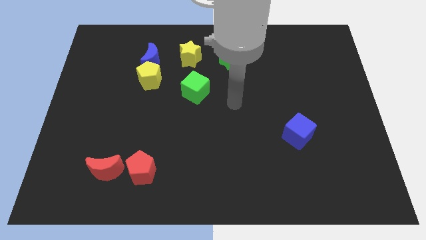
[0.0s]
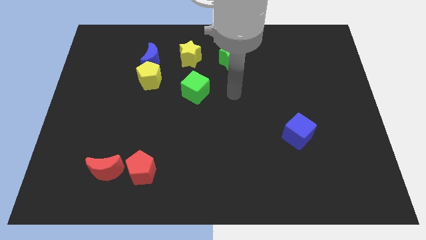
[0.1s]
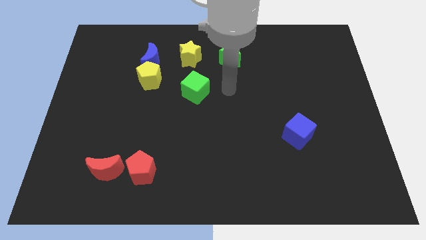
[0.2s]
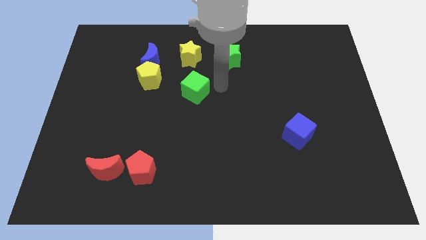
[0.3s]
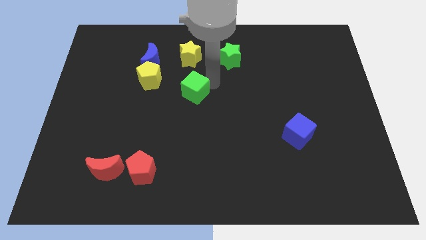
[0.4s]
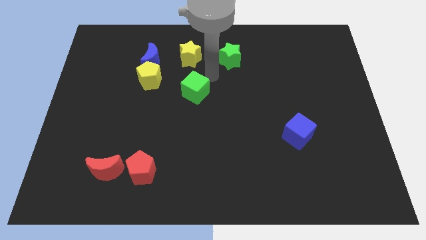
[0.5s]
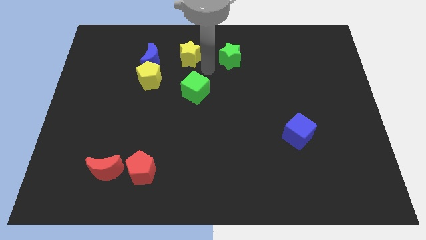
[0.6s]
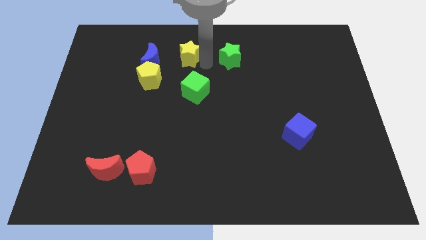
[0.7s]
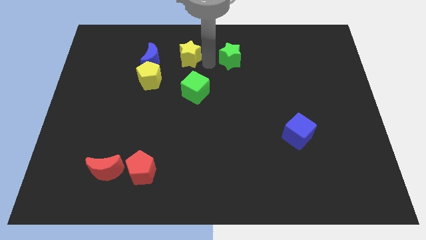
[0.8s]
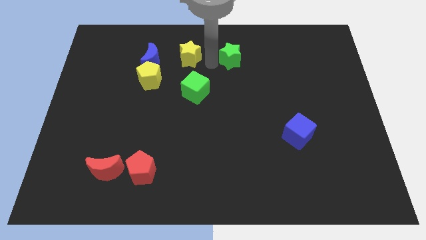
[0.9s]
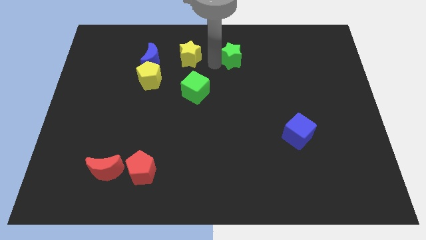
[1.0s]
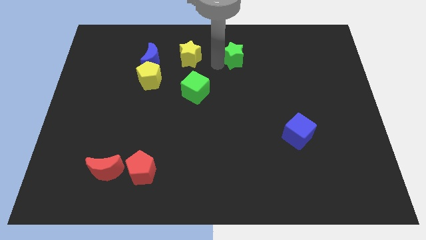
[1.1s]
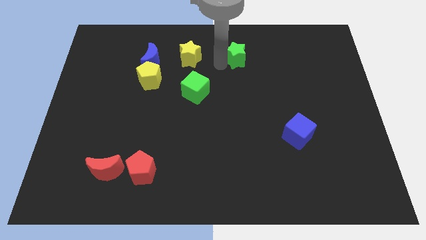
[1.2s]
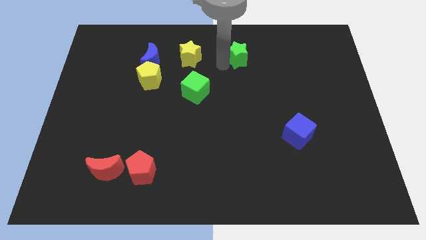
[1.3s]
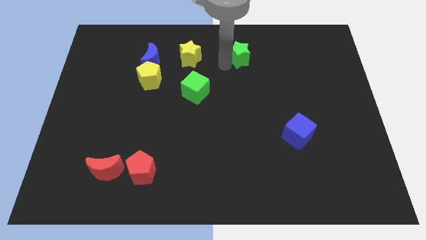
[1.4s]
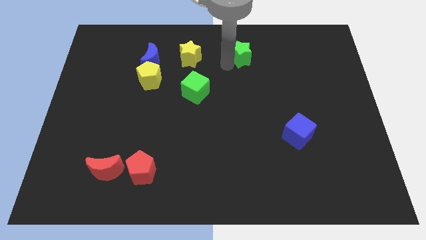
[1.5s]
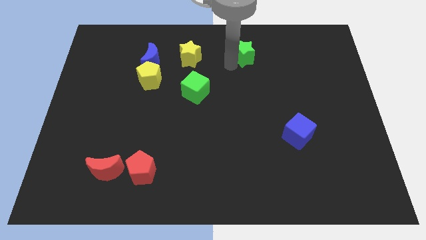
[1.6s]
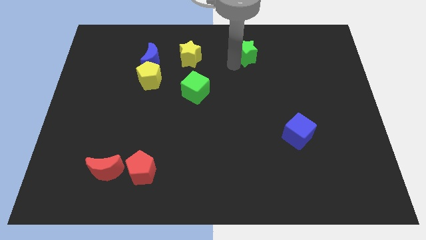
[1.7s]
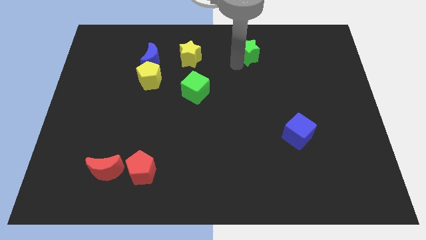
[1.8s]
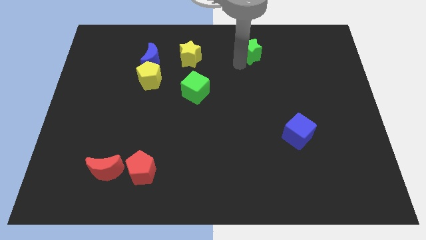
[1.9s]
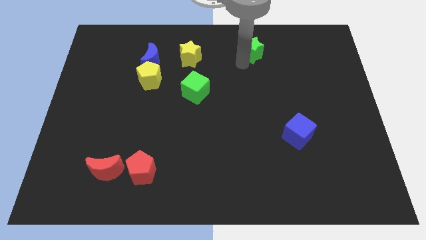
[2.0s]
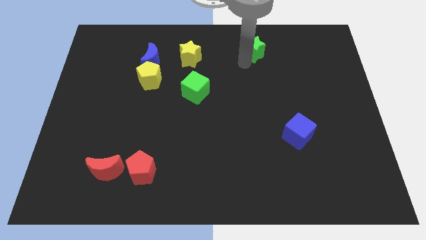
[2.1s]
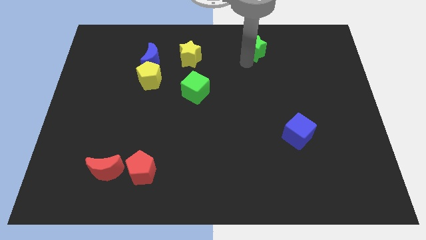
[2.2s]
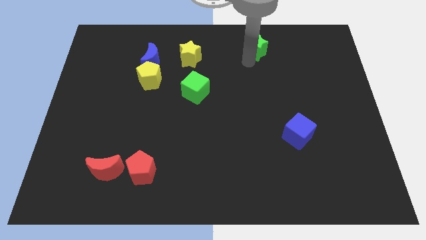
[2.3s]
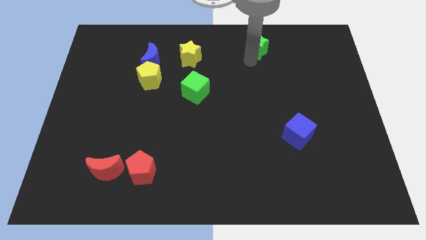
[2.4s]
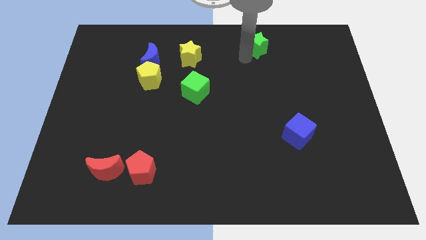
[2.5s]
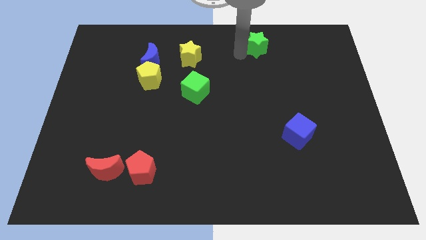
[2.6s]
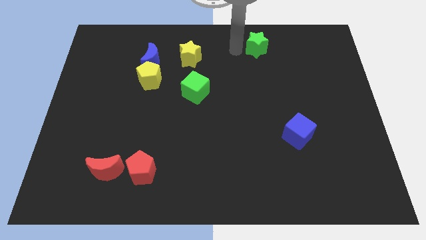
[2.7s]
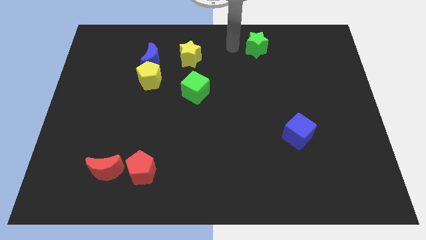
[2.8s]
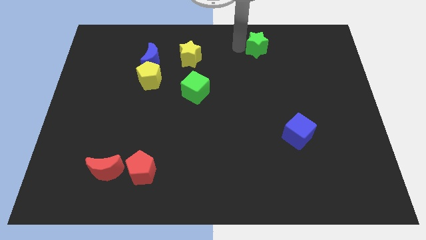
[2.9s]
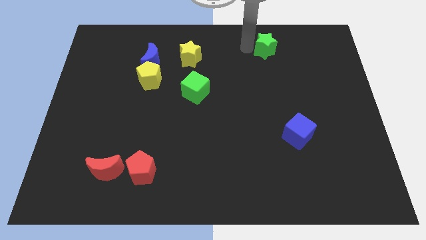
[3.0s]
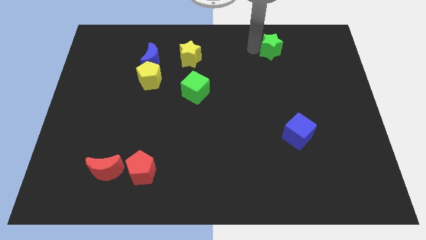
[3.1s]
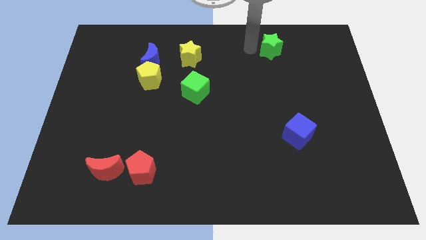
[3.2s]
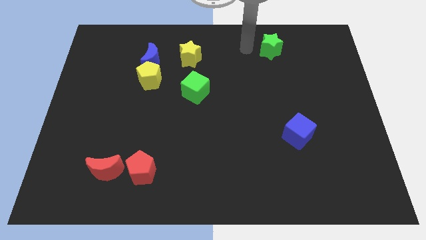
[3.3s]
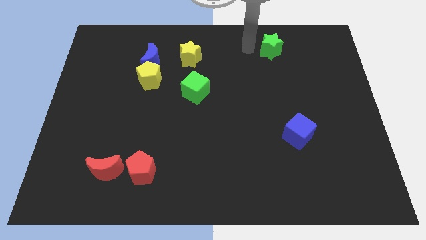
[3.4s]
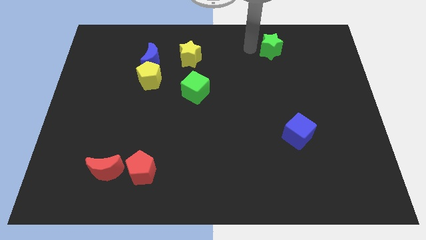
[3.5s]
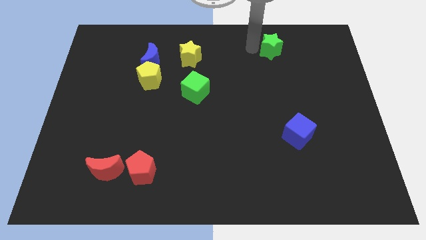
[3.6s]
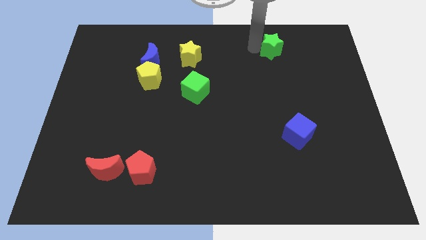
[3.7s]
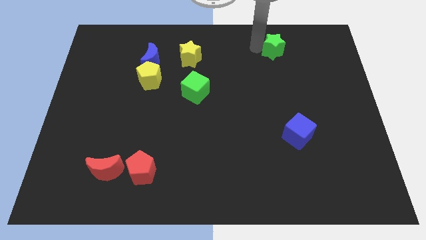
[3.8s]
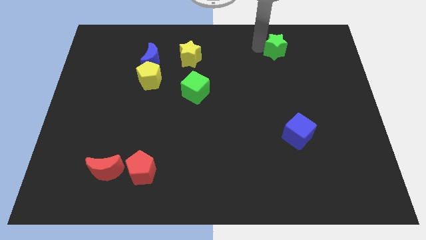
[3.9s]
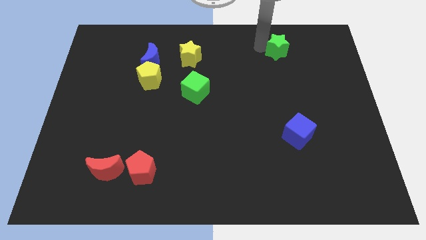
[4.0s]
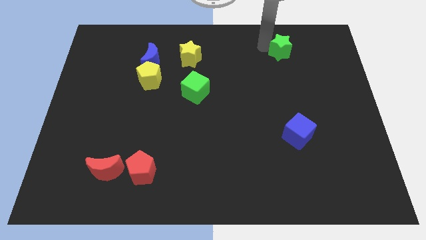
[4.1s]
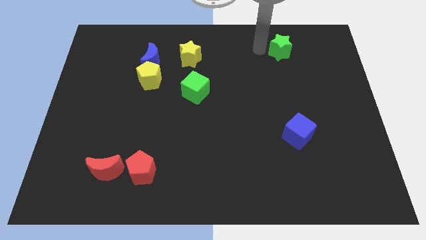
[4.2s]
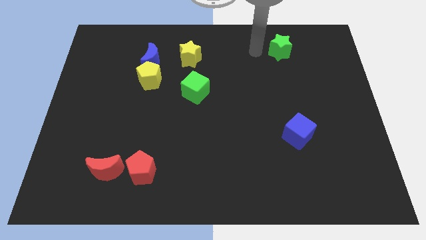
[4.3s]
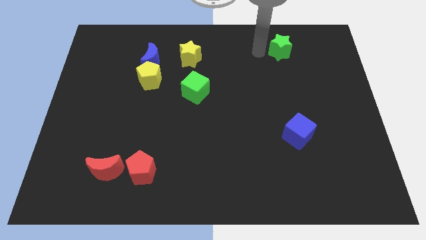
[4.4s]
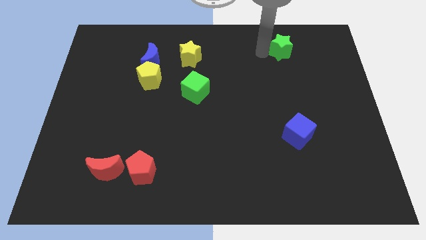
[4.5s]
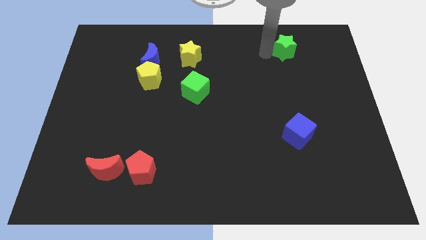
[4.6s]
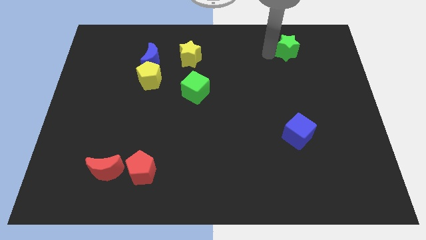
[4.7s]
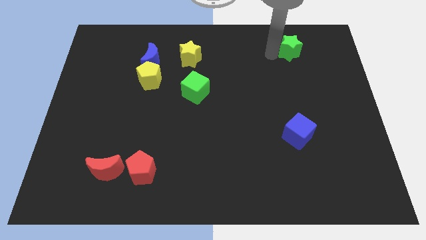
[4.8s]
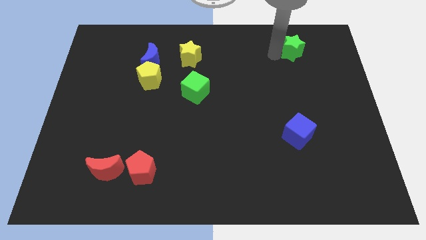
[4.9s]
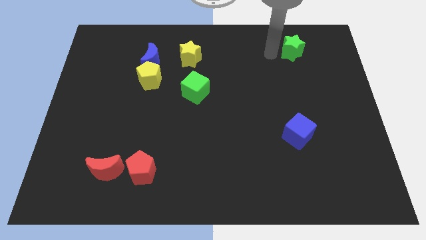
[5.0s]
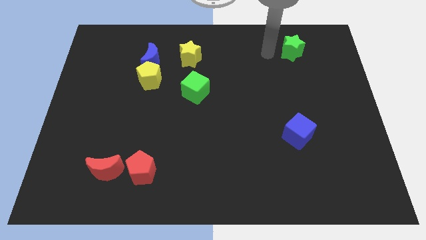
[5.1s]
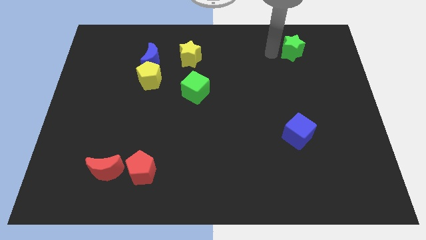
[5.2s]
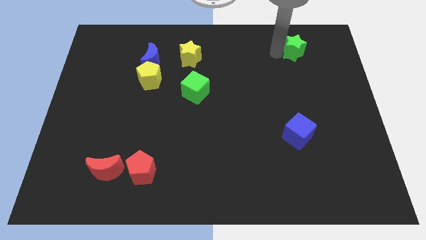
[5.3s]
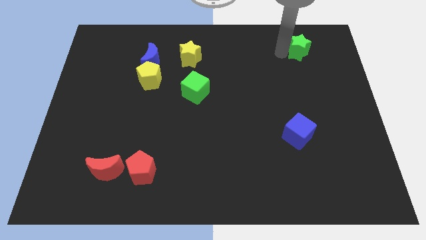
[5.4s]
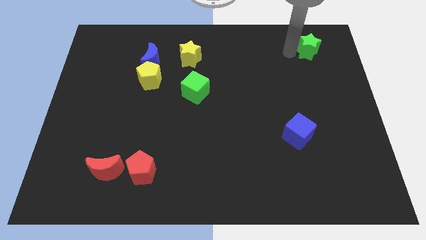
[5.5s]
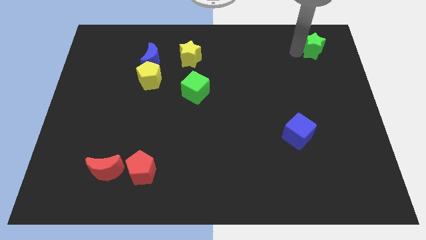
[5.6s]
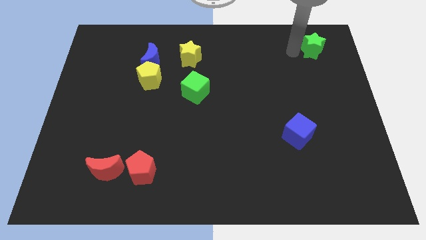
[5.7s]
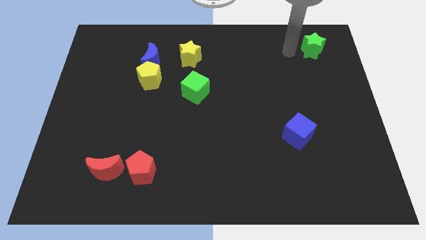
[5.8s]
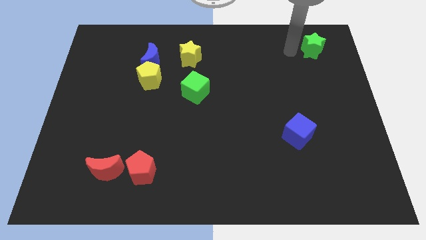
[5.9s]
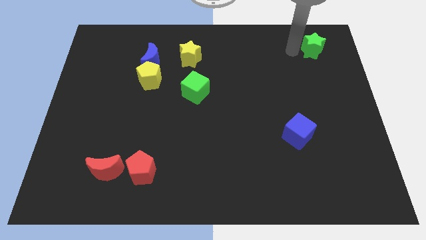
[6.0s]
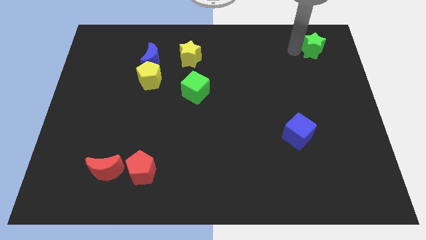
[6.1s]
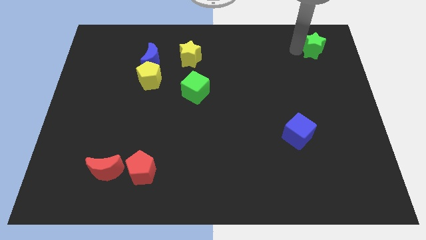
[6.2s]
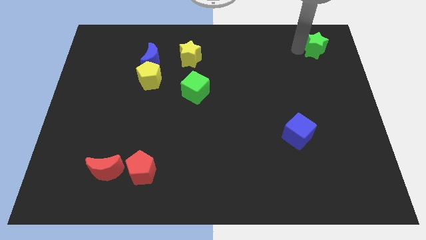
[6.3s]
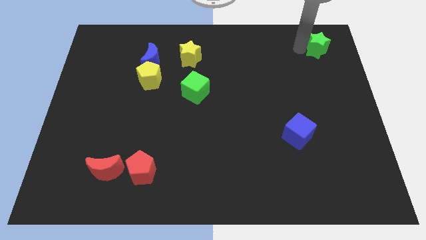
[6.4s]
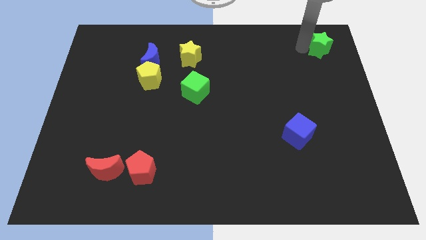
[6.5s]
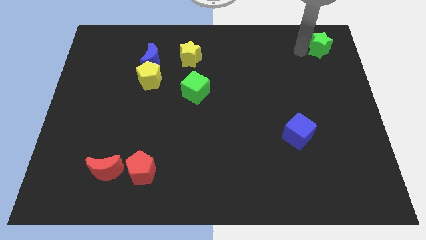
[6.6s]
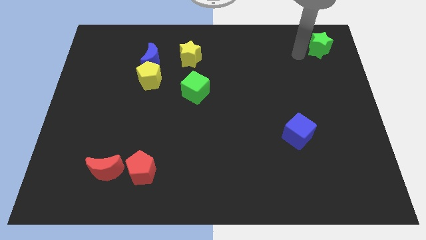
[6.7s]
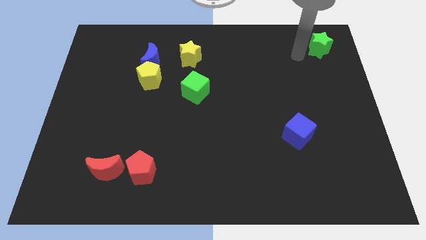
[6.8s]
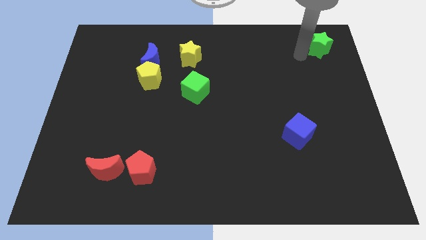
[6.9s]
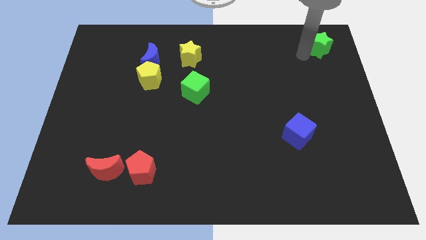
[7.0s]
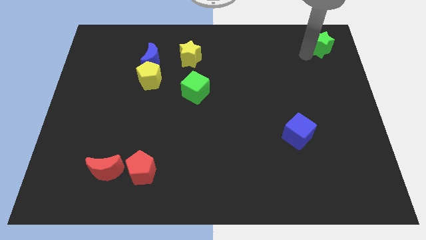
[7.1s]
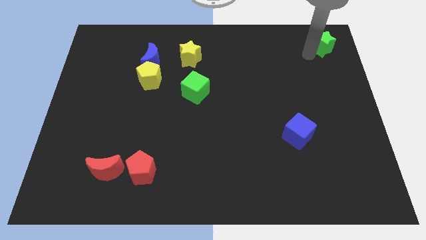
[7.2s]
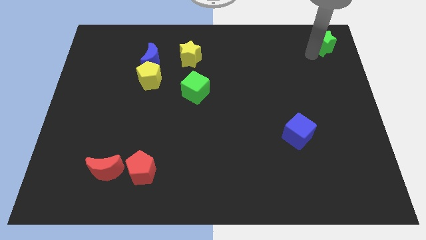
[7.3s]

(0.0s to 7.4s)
slide the green star to the top right
